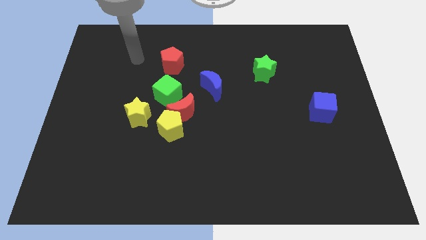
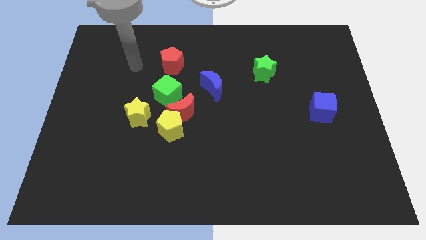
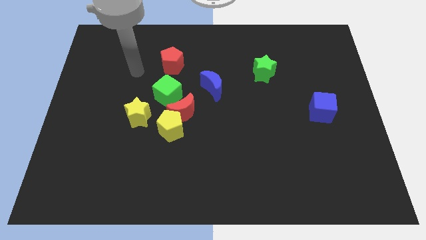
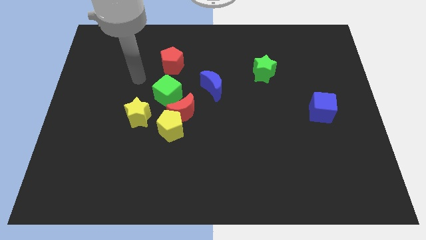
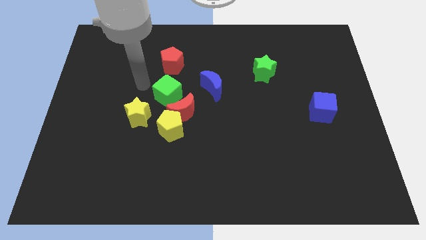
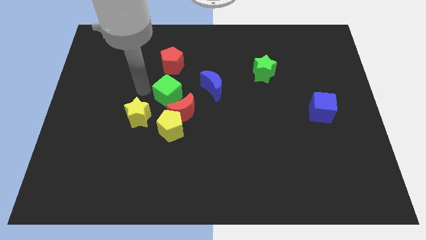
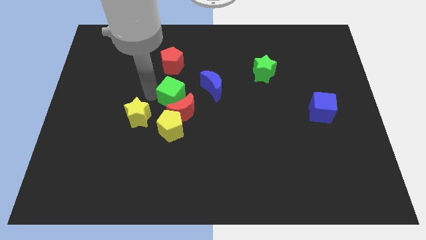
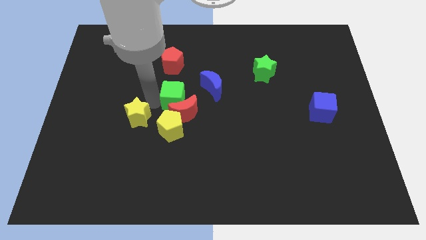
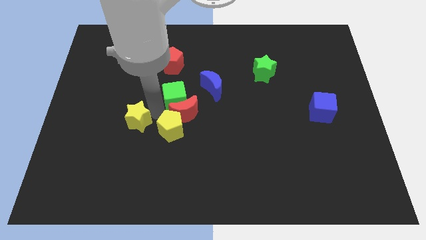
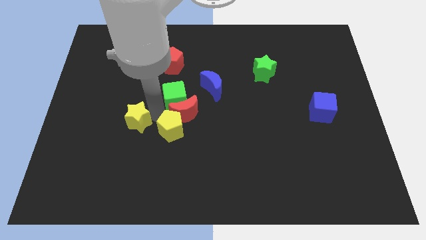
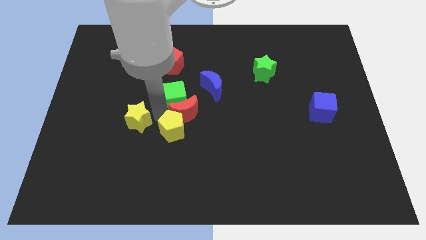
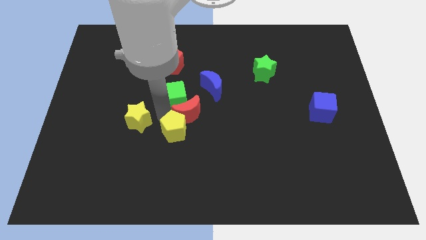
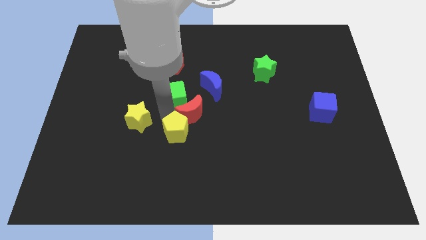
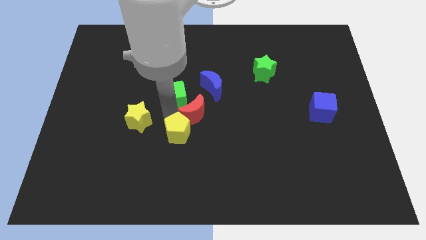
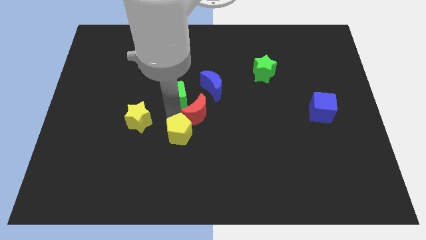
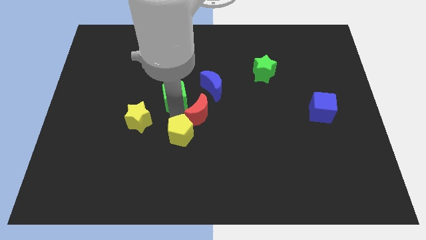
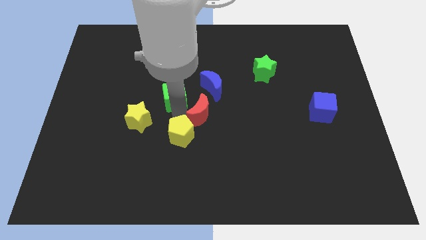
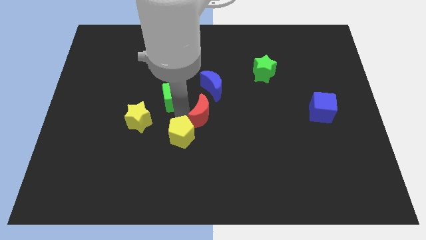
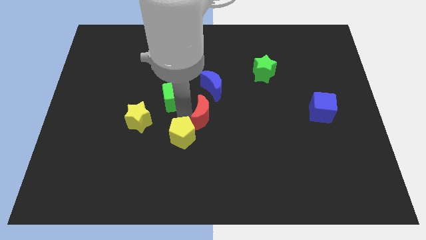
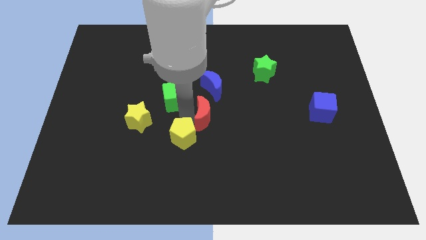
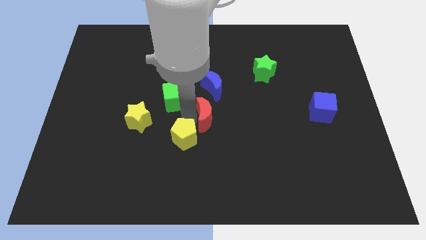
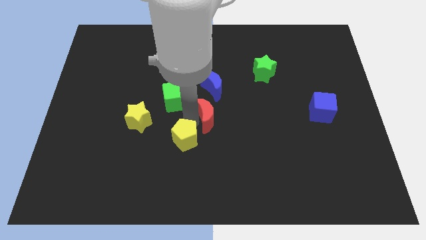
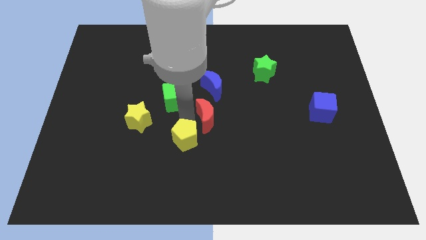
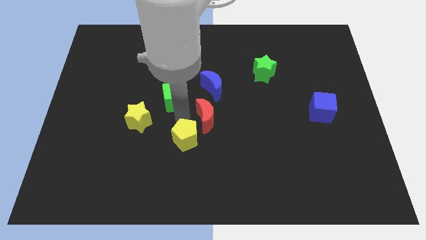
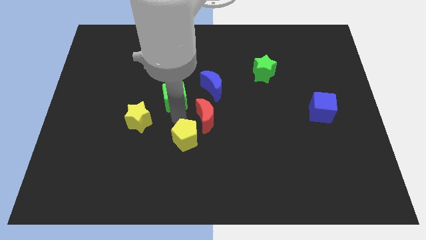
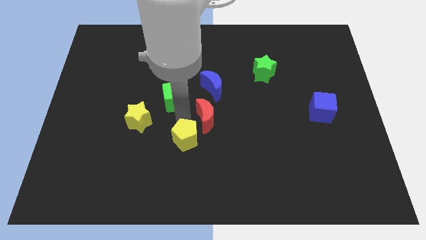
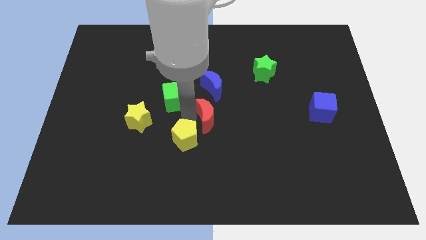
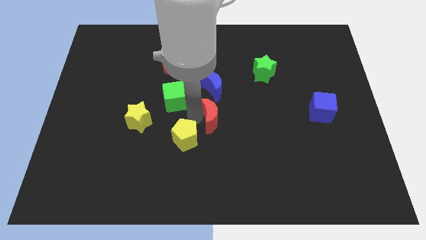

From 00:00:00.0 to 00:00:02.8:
pull the red moon apart from the yellow pentagon, green cube, and yellow star

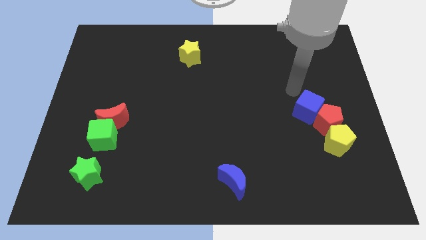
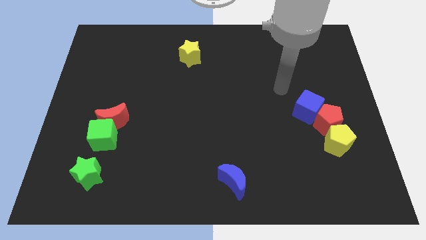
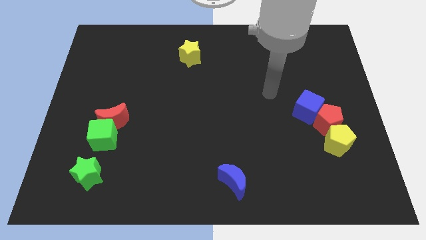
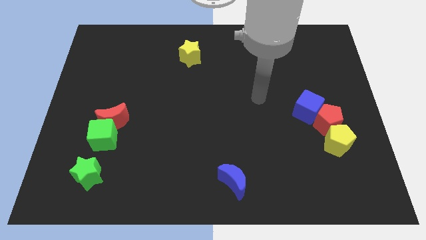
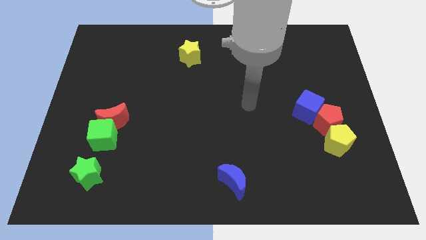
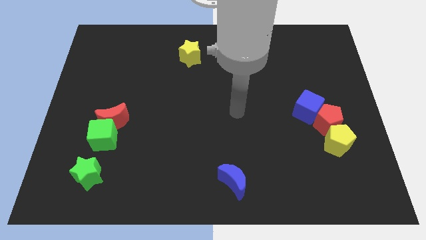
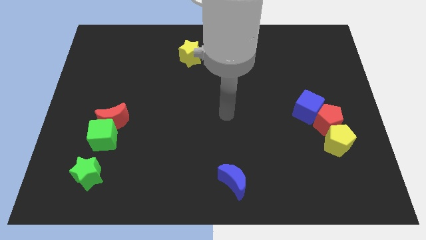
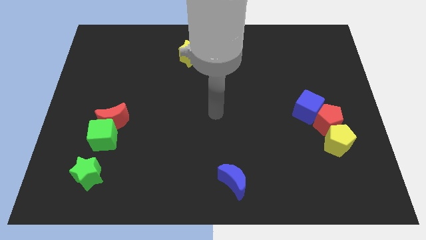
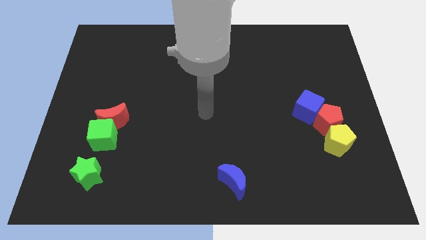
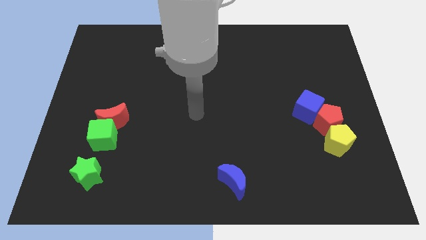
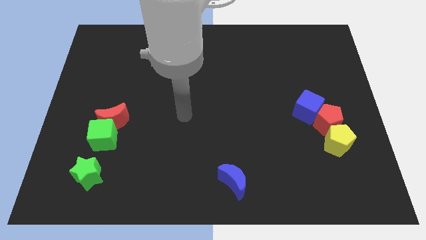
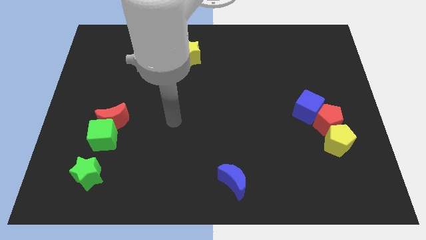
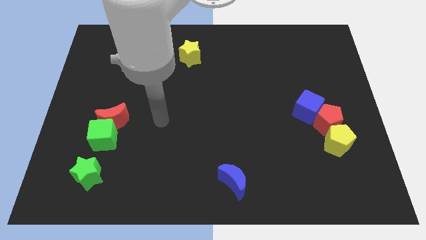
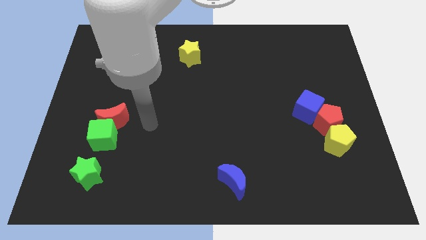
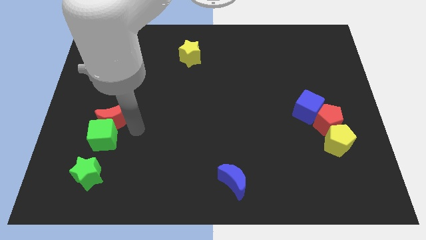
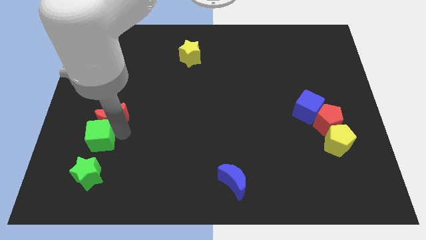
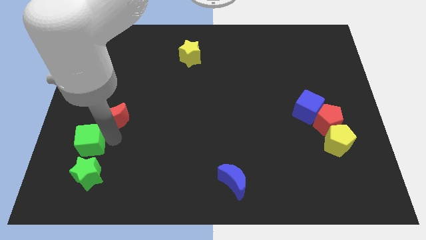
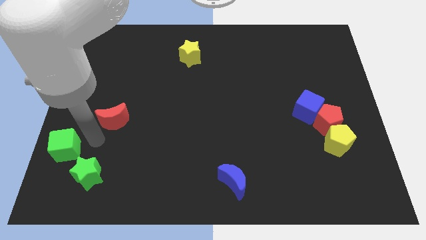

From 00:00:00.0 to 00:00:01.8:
separate the red moon from the green cube

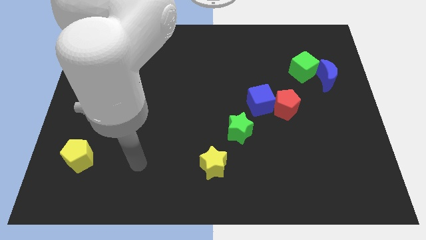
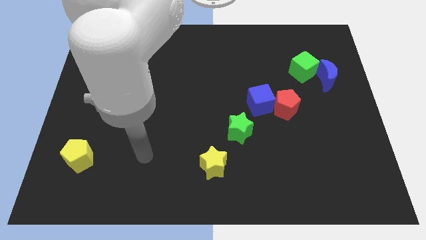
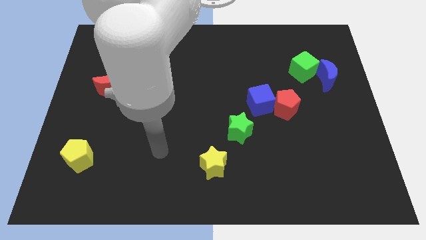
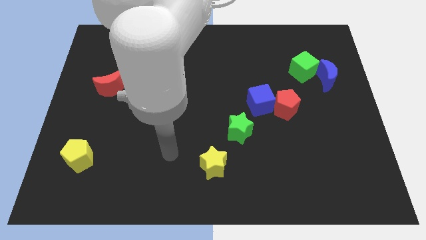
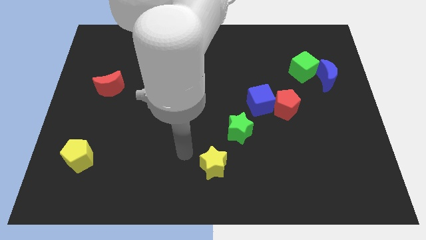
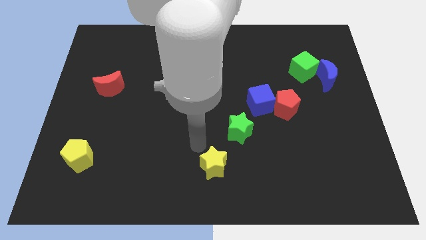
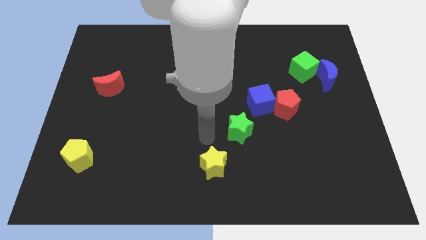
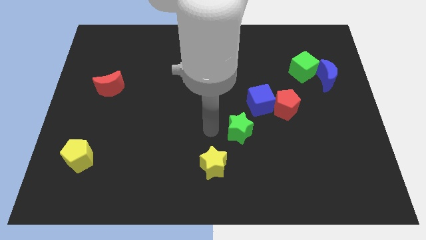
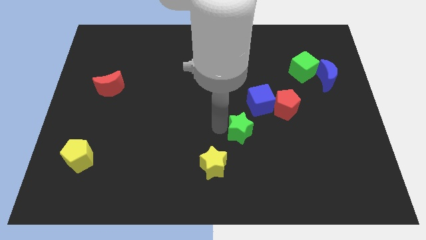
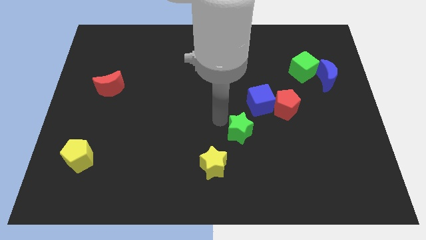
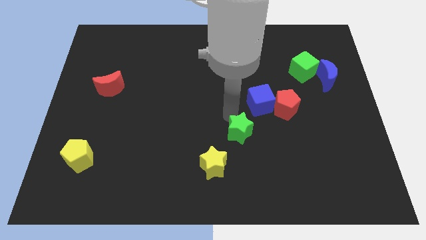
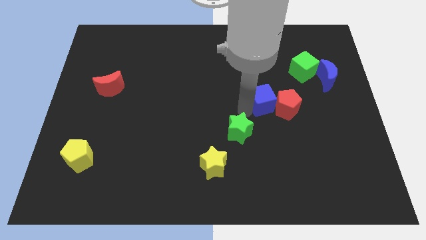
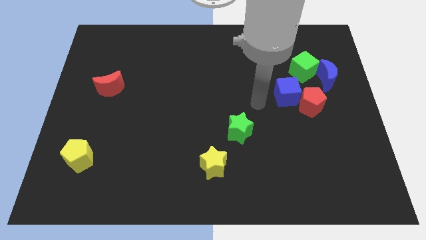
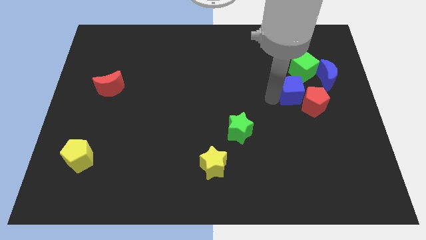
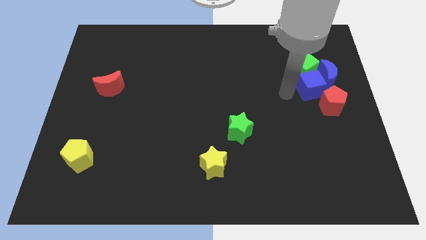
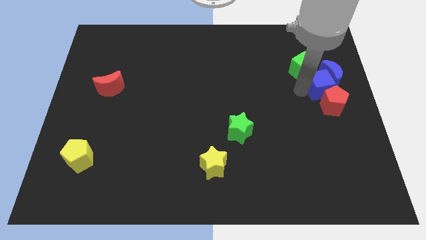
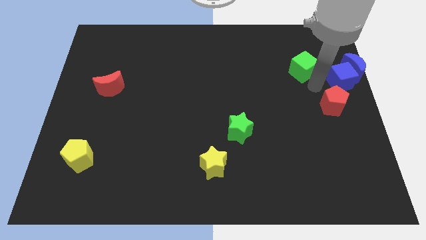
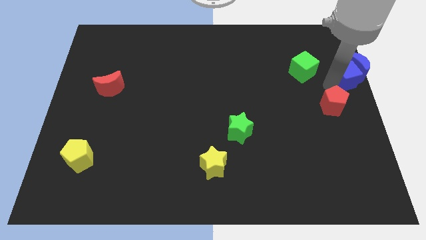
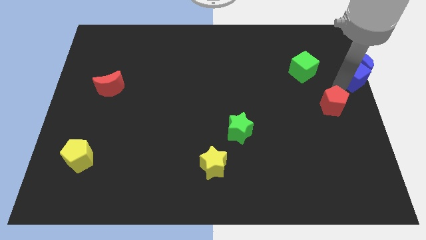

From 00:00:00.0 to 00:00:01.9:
move the red pentagon away from the blue cube

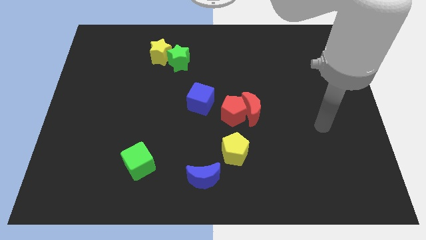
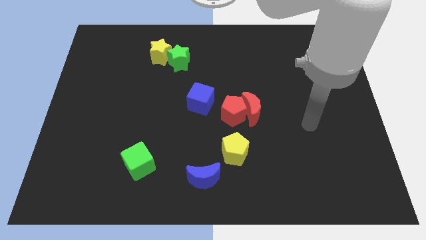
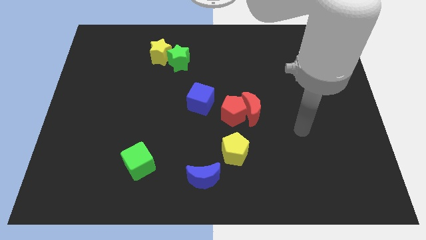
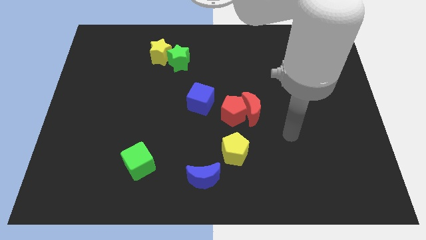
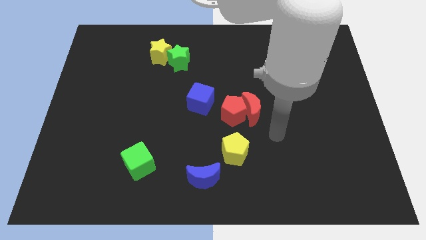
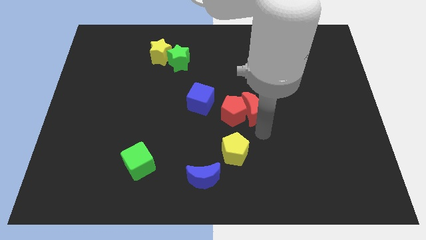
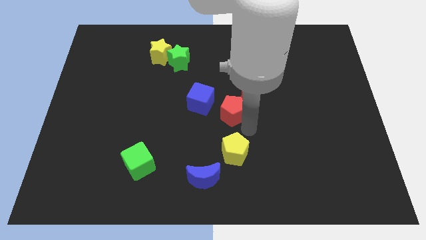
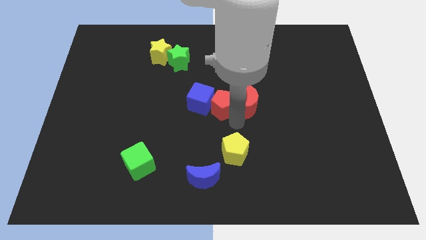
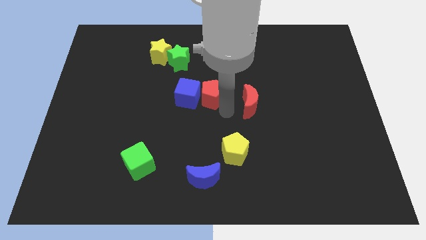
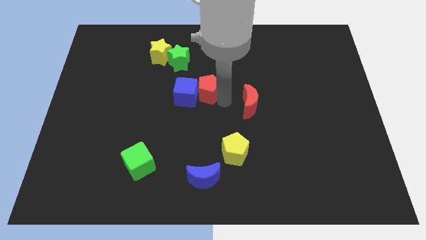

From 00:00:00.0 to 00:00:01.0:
move the red moon away from the red pentagon

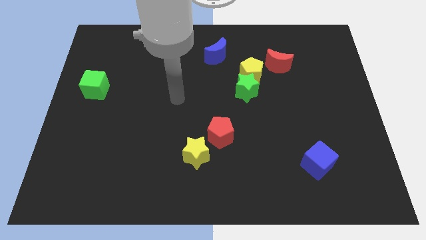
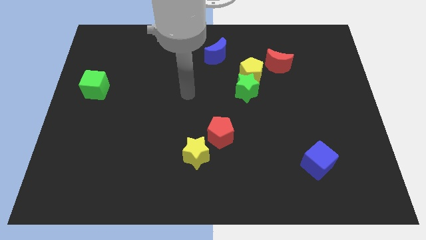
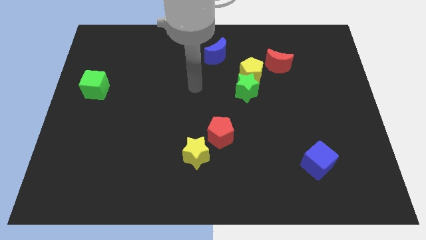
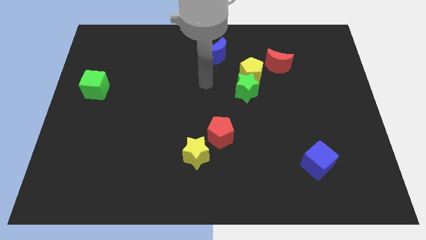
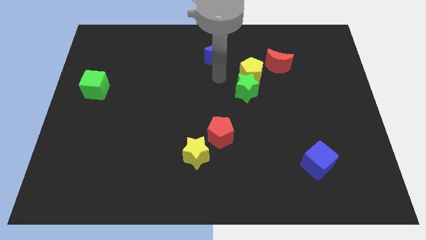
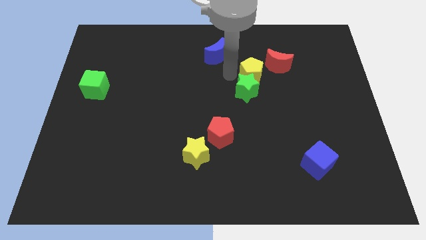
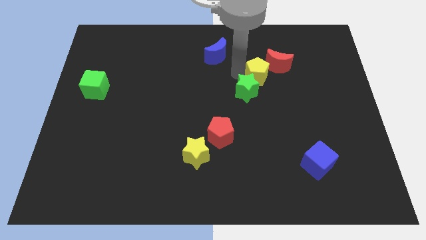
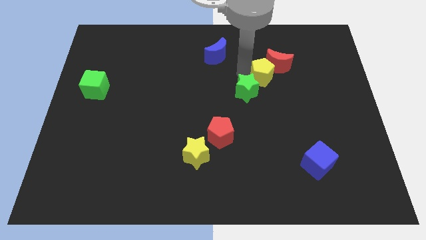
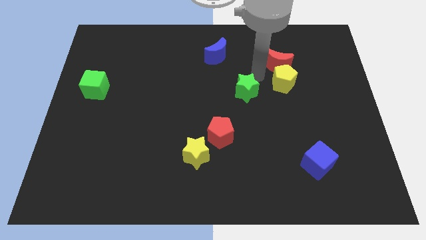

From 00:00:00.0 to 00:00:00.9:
move the green star away from the yellow pentagon

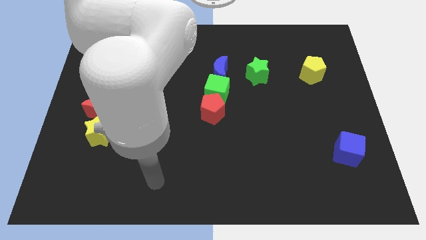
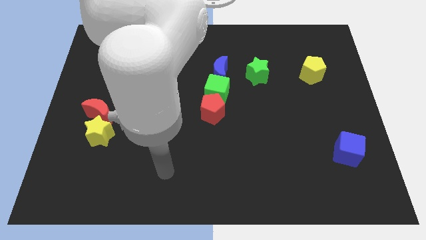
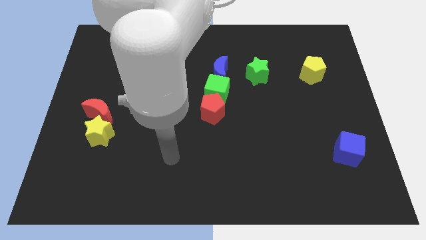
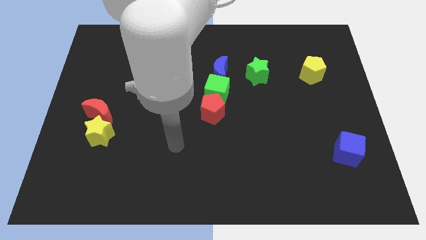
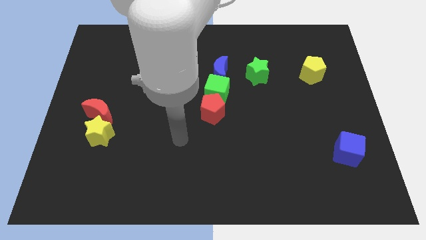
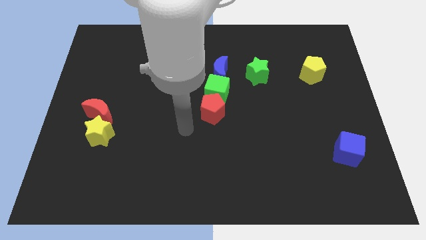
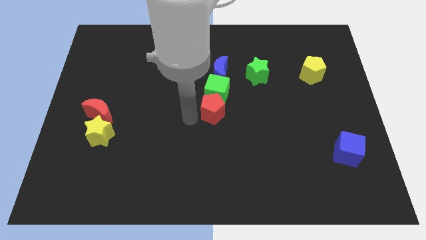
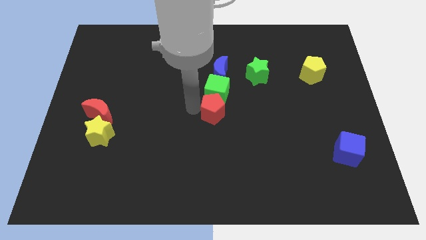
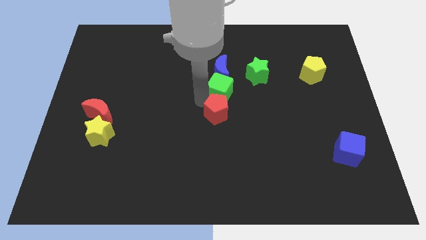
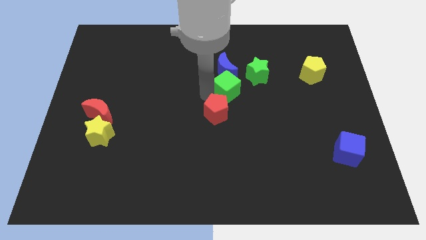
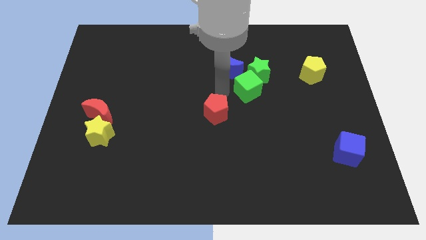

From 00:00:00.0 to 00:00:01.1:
move the red pentagon away from the green cube
